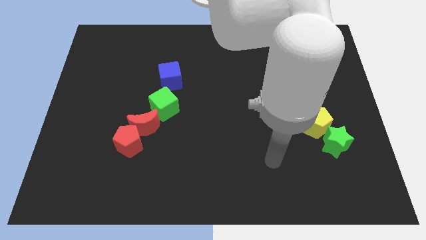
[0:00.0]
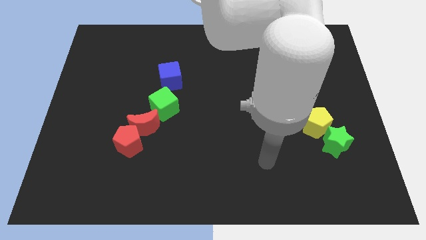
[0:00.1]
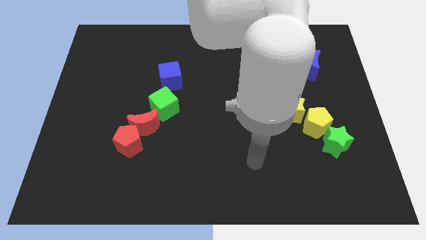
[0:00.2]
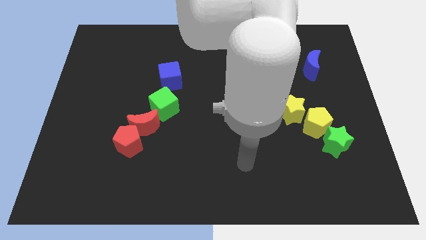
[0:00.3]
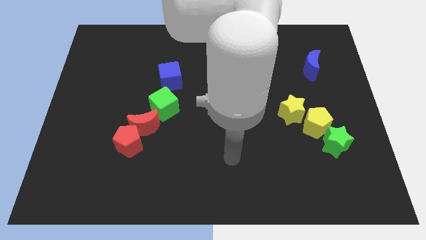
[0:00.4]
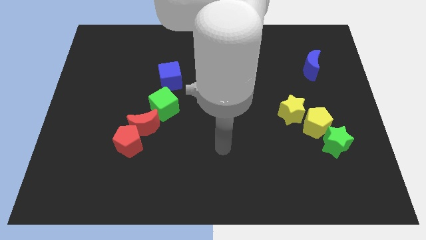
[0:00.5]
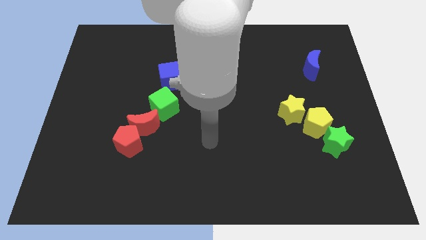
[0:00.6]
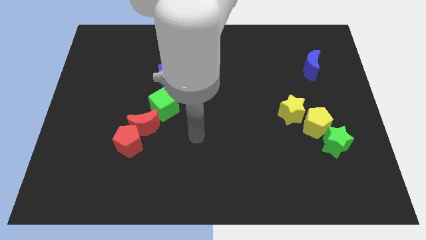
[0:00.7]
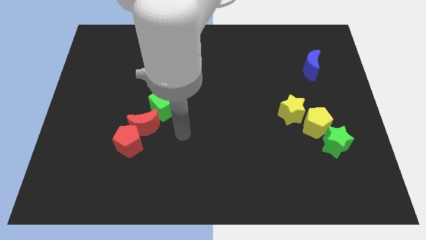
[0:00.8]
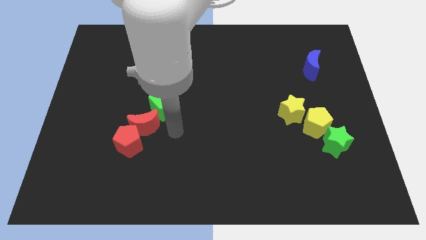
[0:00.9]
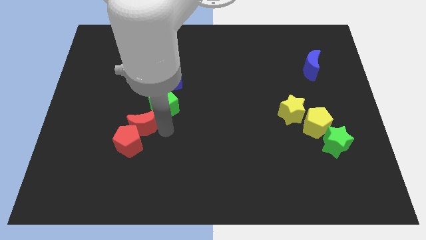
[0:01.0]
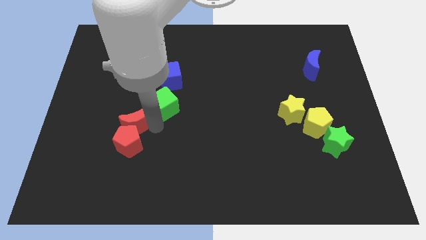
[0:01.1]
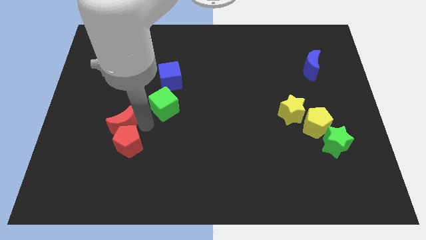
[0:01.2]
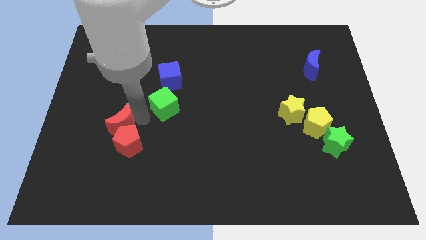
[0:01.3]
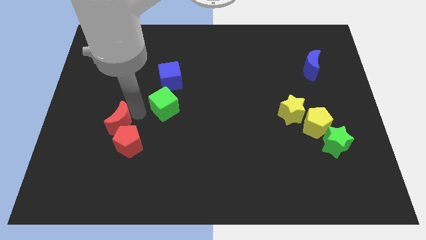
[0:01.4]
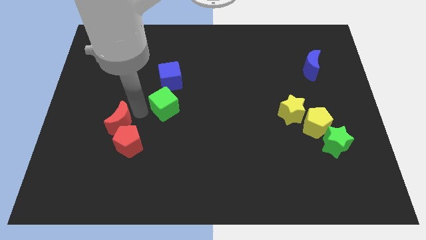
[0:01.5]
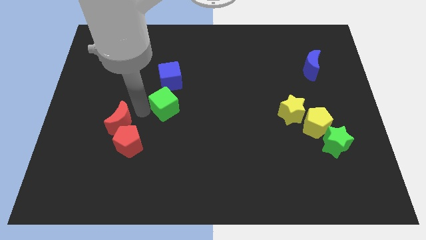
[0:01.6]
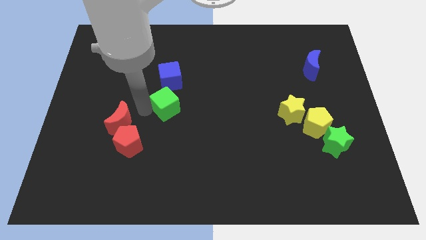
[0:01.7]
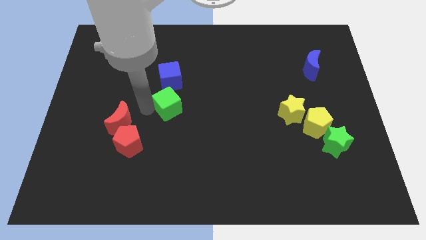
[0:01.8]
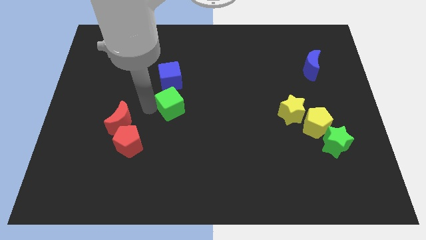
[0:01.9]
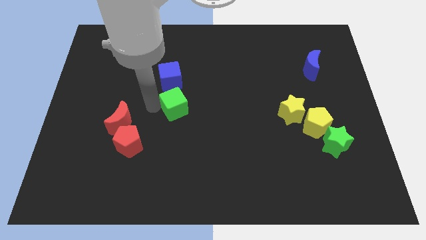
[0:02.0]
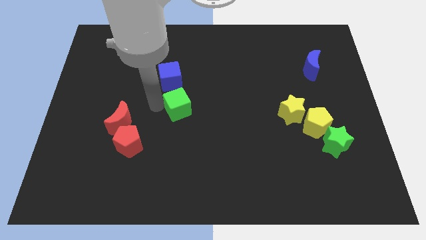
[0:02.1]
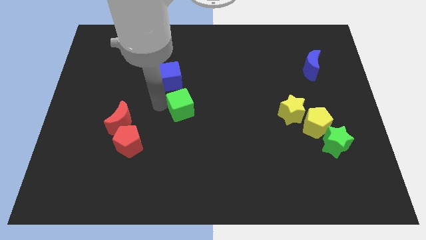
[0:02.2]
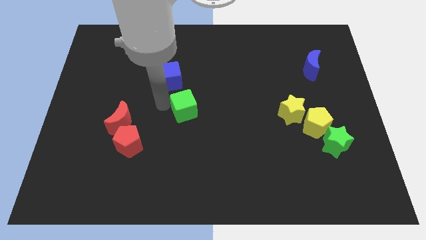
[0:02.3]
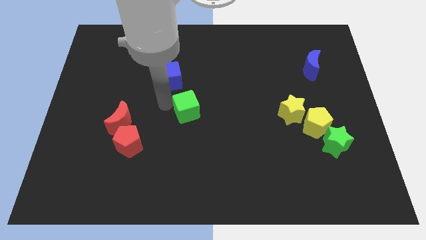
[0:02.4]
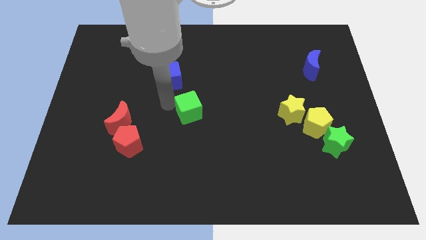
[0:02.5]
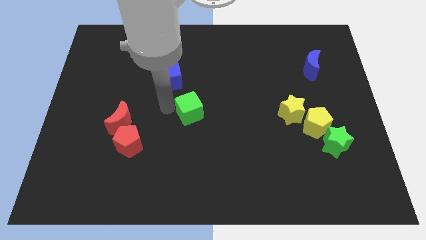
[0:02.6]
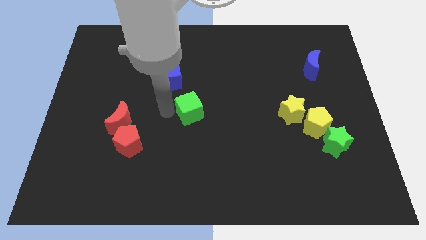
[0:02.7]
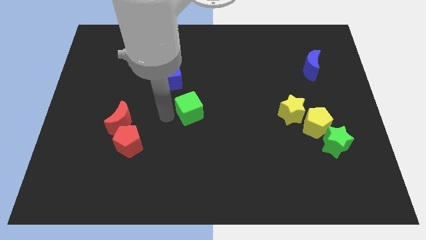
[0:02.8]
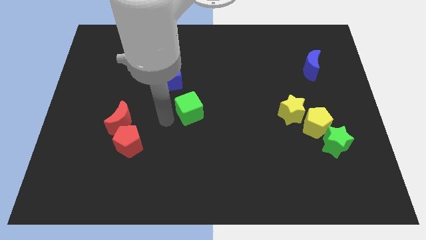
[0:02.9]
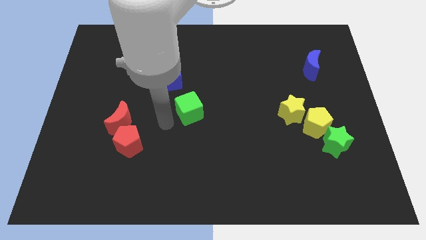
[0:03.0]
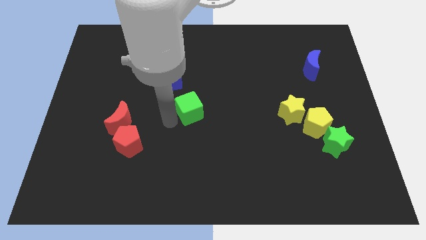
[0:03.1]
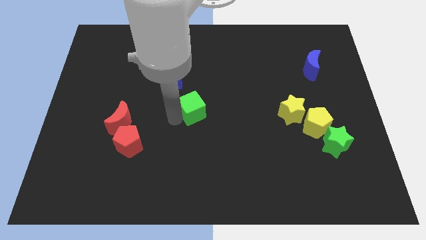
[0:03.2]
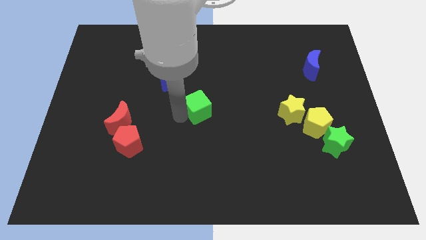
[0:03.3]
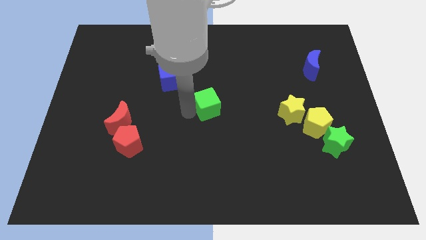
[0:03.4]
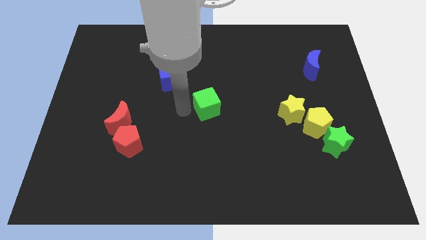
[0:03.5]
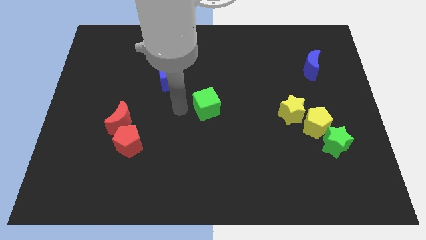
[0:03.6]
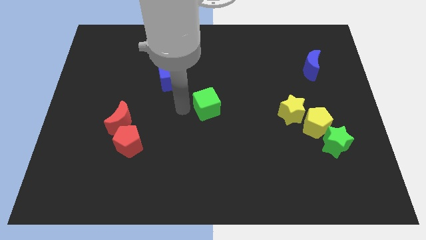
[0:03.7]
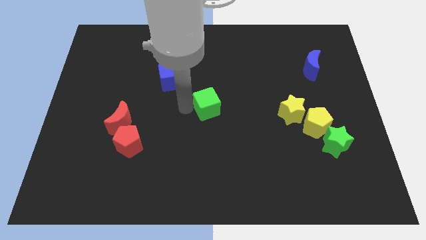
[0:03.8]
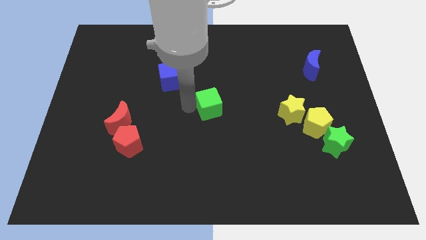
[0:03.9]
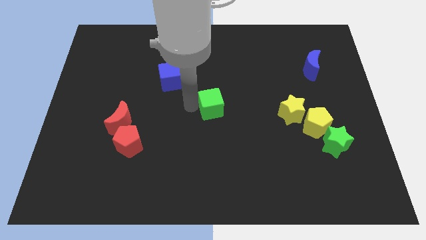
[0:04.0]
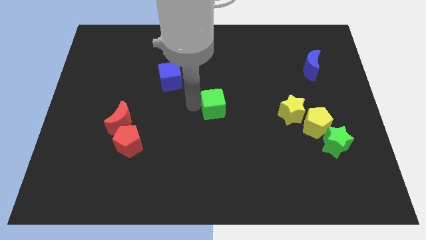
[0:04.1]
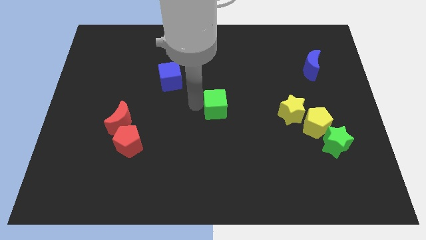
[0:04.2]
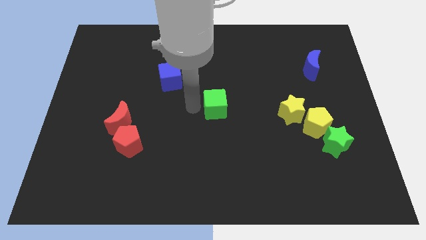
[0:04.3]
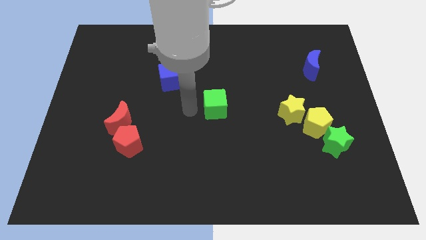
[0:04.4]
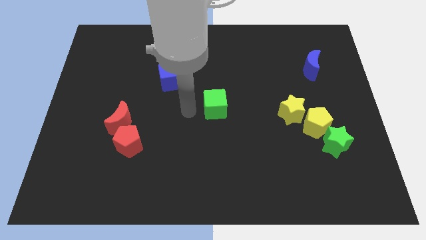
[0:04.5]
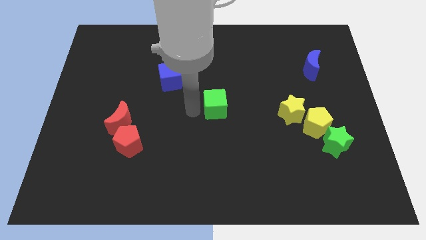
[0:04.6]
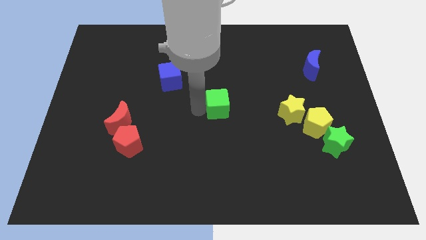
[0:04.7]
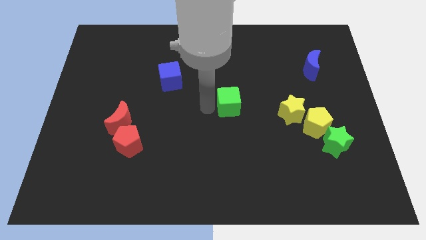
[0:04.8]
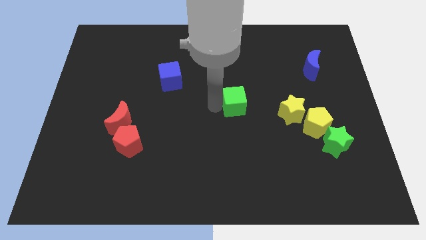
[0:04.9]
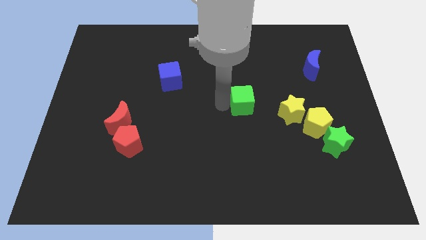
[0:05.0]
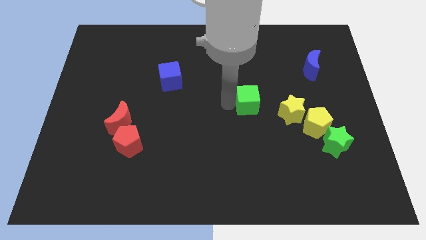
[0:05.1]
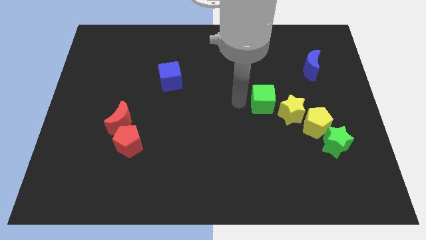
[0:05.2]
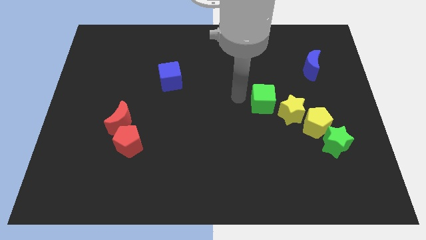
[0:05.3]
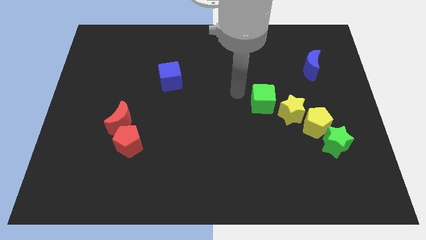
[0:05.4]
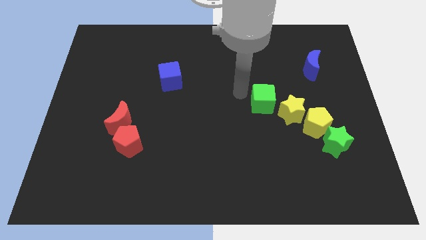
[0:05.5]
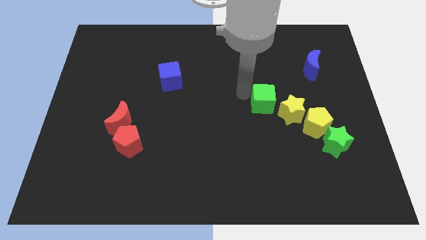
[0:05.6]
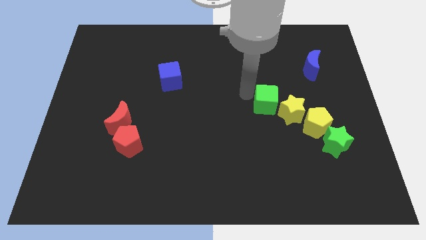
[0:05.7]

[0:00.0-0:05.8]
push the green cube to the yellow star

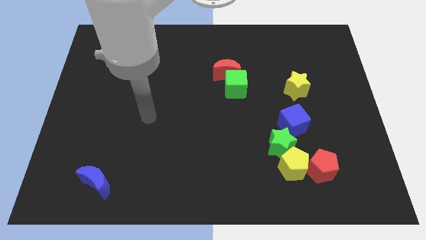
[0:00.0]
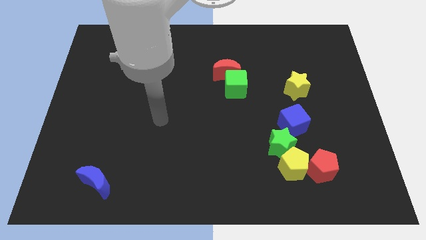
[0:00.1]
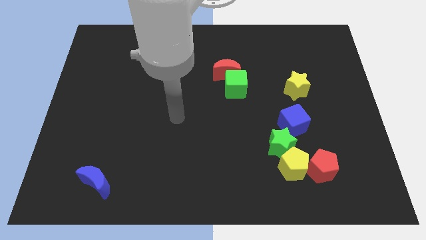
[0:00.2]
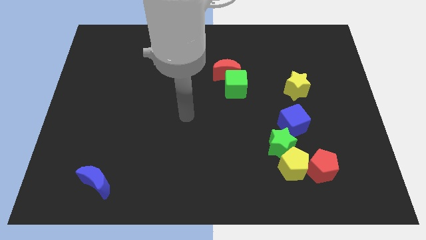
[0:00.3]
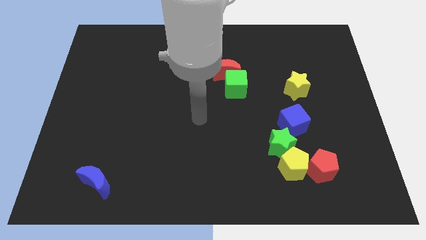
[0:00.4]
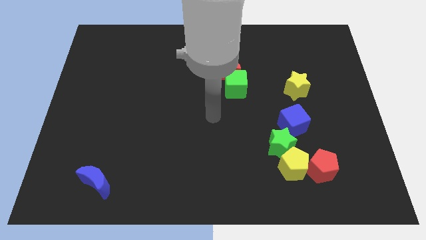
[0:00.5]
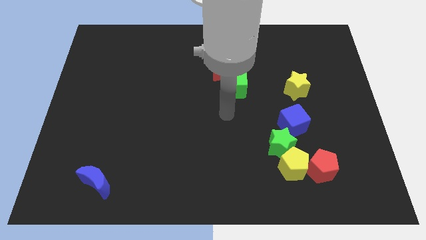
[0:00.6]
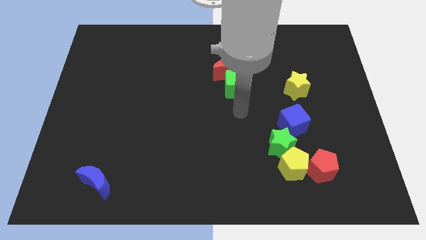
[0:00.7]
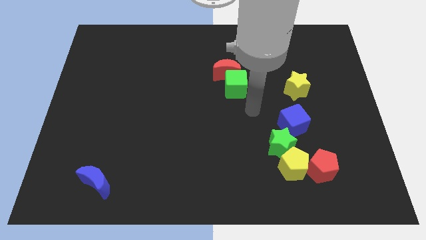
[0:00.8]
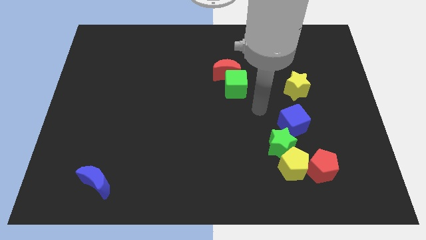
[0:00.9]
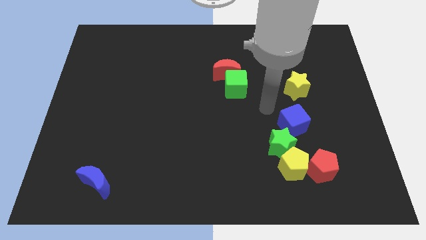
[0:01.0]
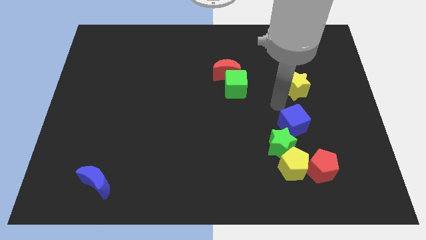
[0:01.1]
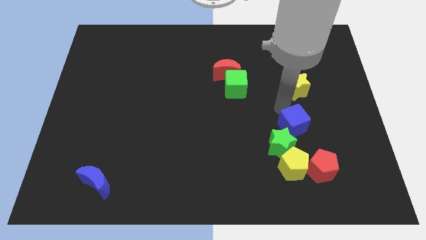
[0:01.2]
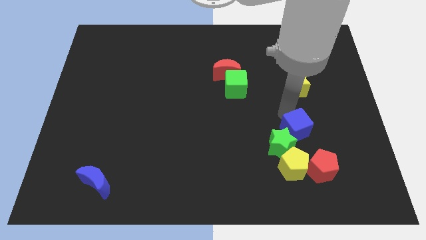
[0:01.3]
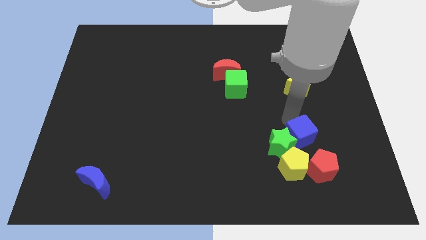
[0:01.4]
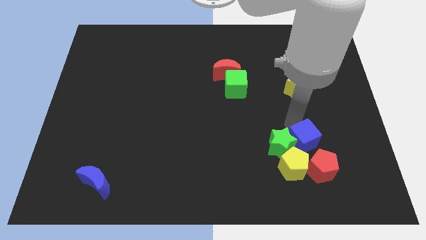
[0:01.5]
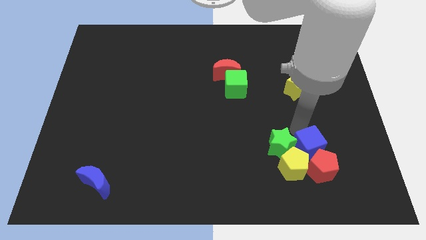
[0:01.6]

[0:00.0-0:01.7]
slide the blue cube to the yellow pentagon
